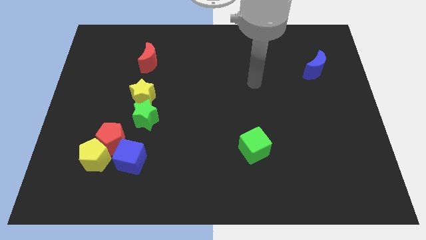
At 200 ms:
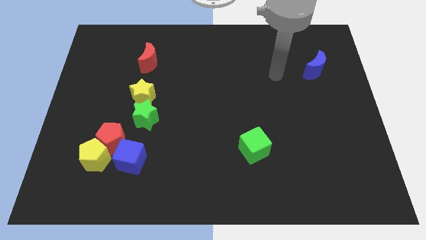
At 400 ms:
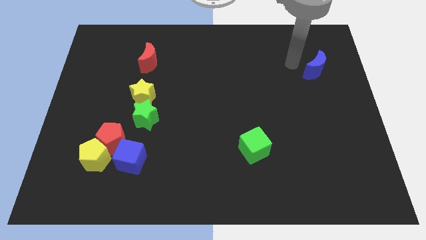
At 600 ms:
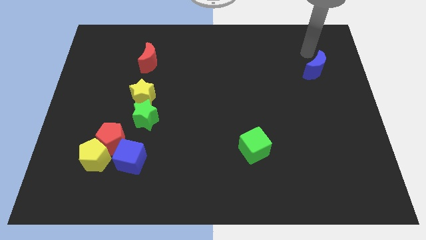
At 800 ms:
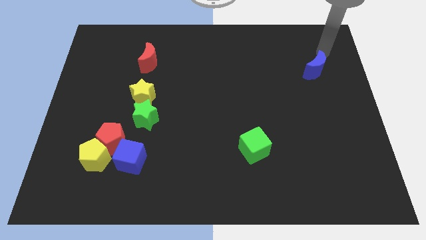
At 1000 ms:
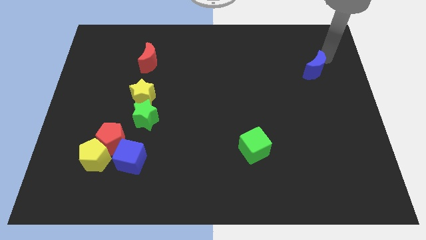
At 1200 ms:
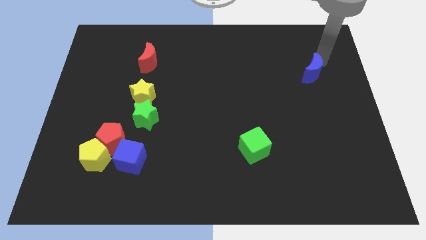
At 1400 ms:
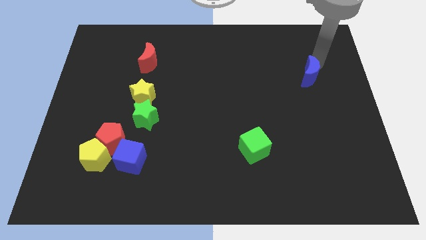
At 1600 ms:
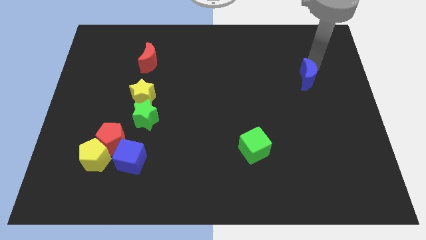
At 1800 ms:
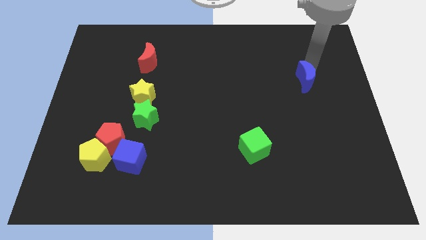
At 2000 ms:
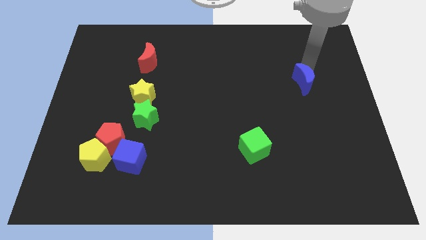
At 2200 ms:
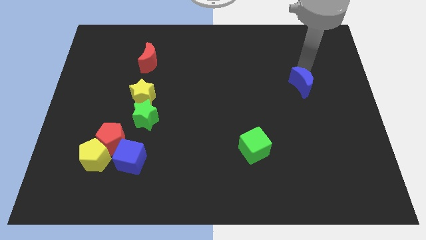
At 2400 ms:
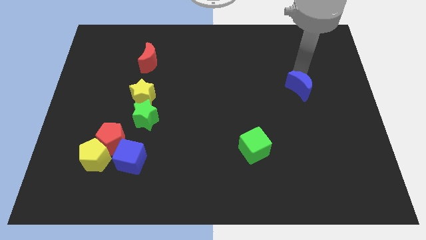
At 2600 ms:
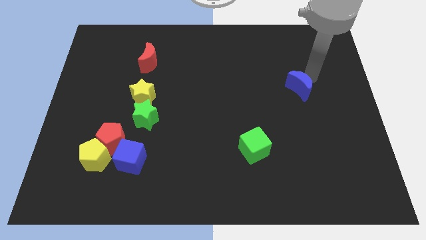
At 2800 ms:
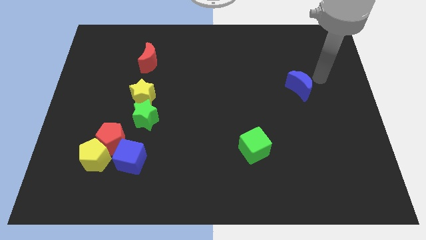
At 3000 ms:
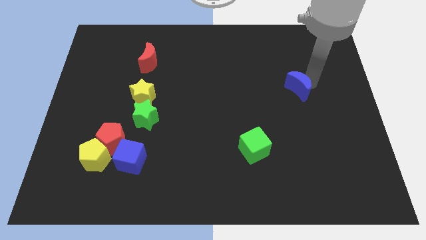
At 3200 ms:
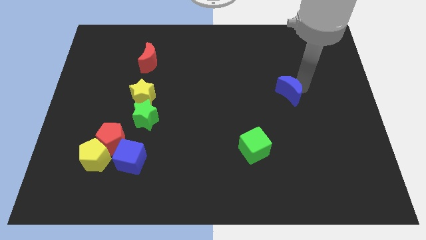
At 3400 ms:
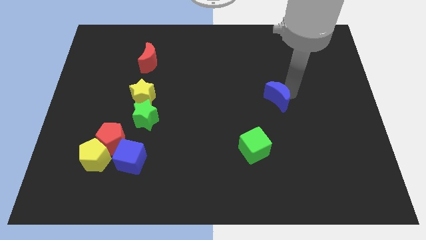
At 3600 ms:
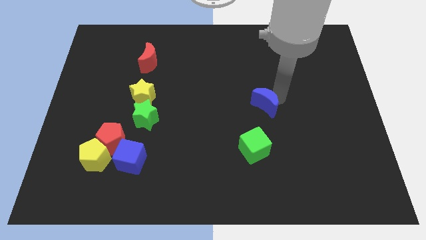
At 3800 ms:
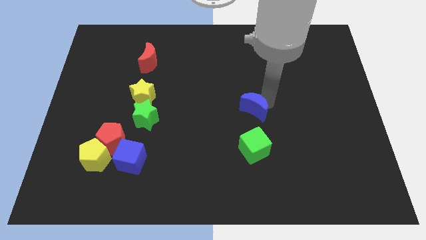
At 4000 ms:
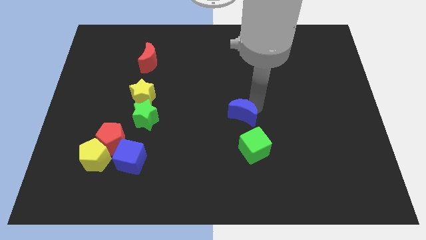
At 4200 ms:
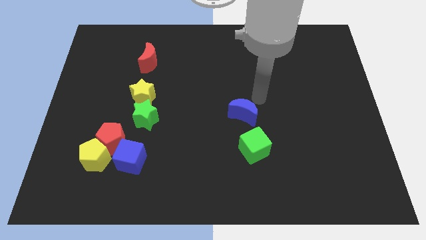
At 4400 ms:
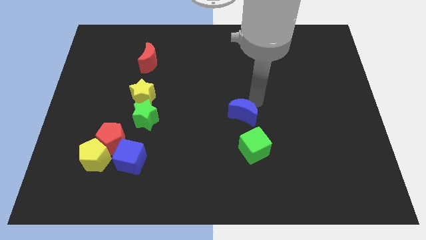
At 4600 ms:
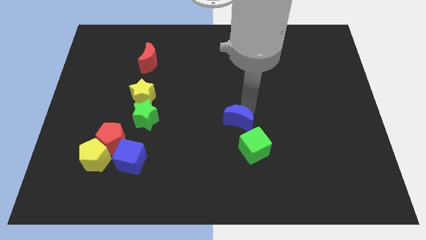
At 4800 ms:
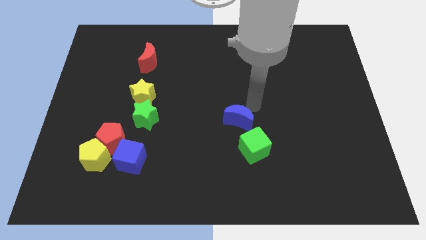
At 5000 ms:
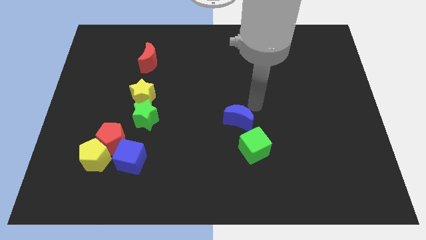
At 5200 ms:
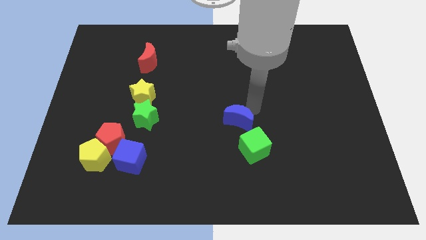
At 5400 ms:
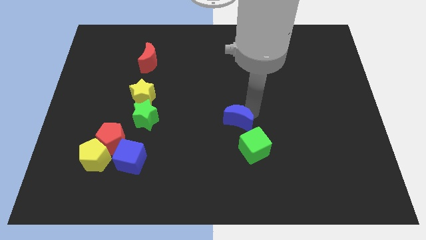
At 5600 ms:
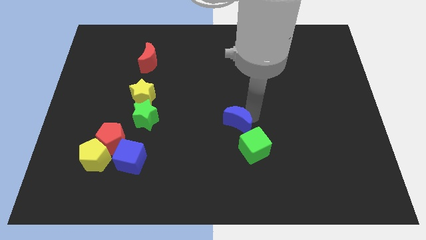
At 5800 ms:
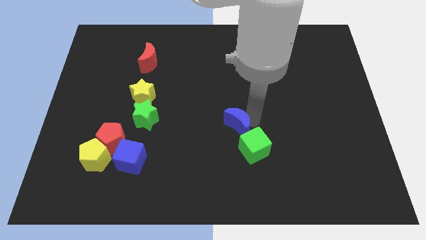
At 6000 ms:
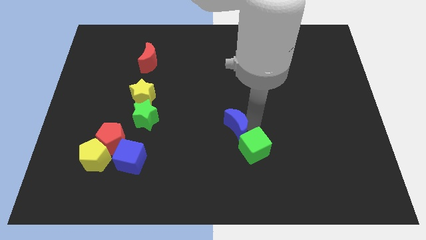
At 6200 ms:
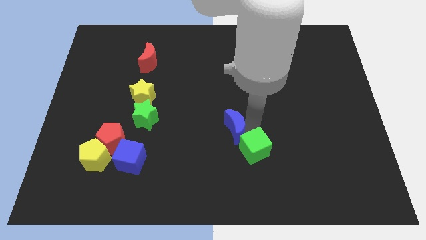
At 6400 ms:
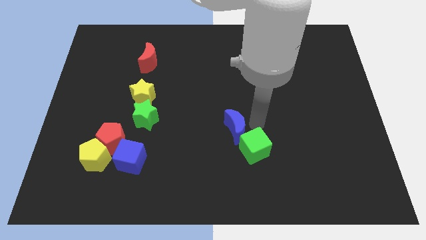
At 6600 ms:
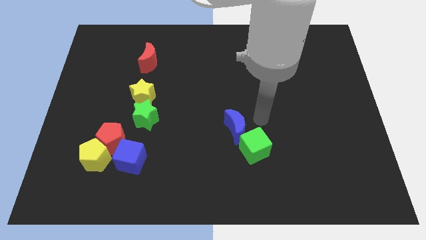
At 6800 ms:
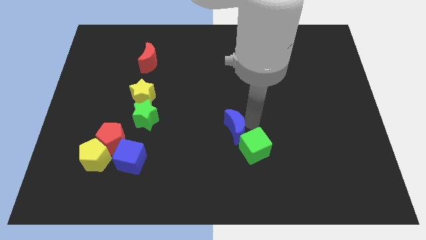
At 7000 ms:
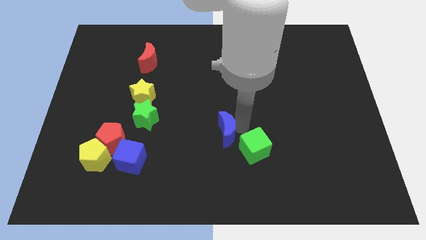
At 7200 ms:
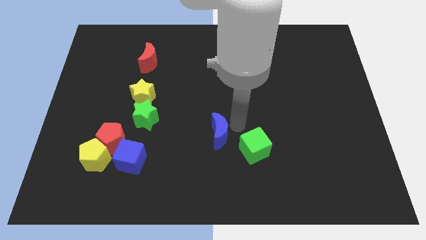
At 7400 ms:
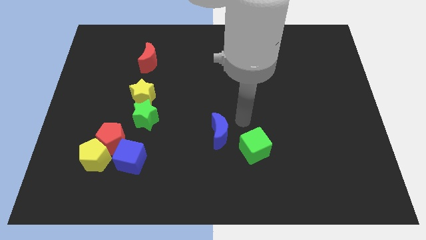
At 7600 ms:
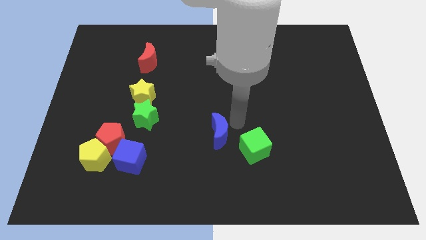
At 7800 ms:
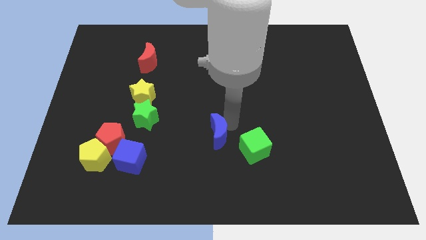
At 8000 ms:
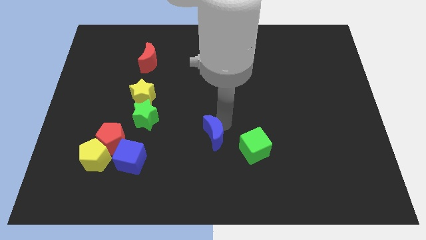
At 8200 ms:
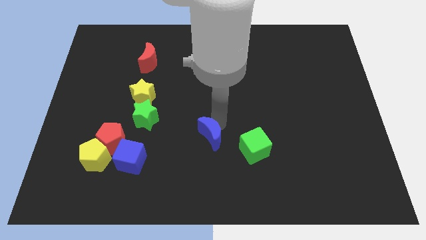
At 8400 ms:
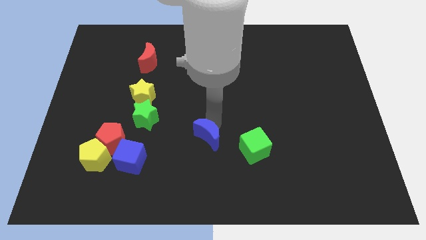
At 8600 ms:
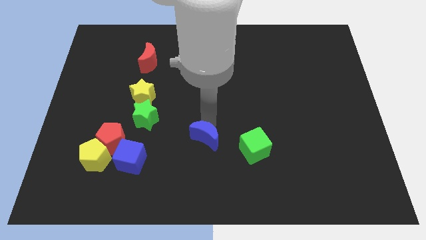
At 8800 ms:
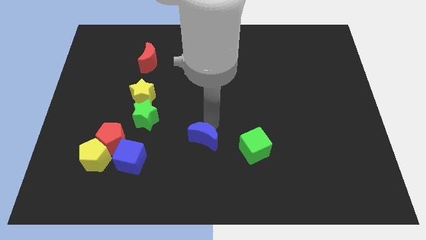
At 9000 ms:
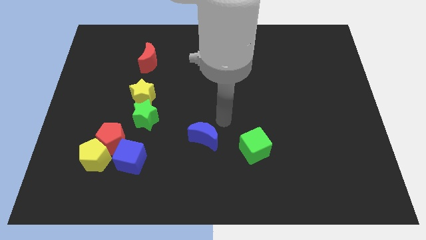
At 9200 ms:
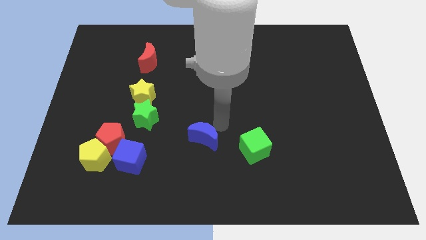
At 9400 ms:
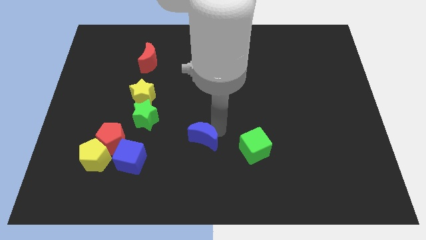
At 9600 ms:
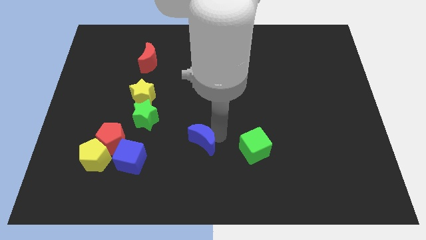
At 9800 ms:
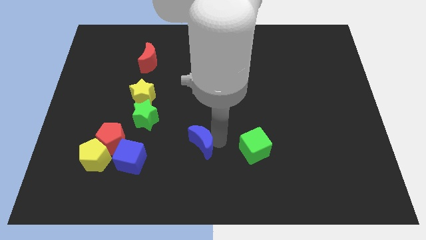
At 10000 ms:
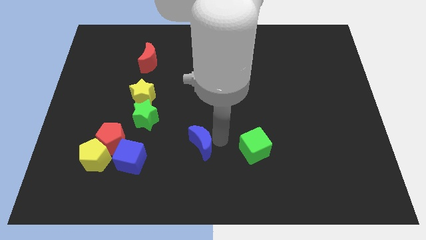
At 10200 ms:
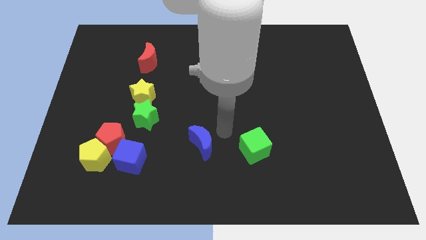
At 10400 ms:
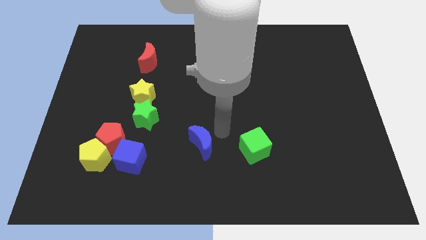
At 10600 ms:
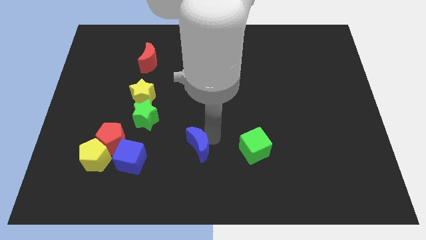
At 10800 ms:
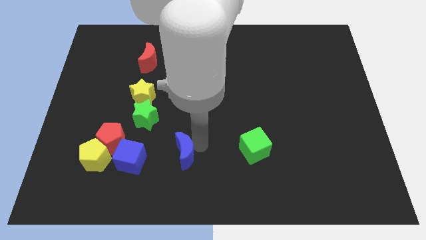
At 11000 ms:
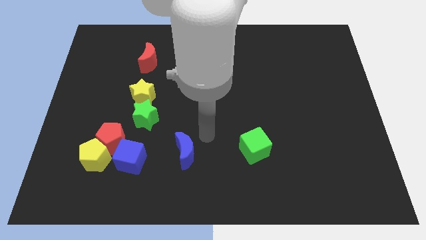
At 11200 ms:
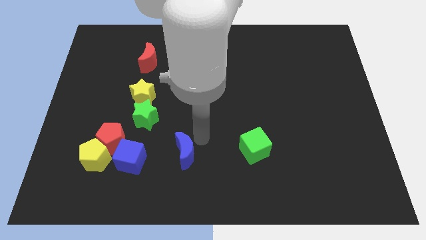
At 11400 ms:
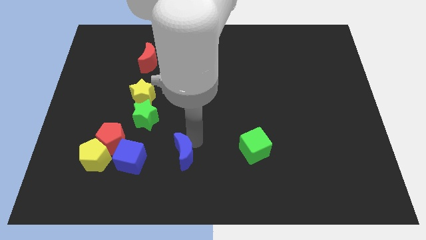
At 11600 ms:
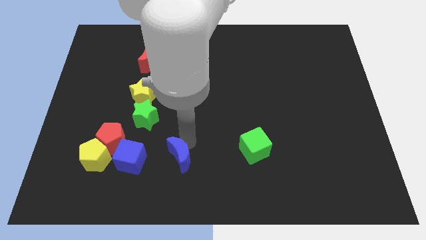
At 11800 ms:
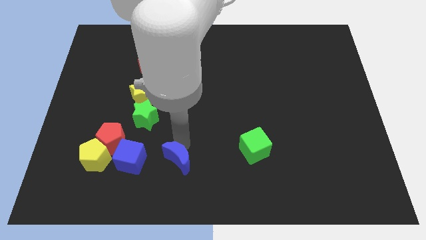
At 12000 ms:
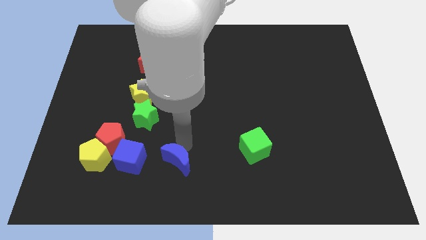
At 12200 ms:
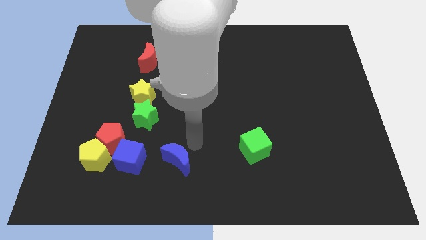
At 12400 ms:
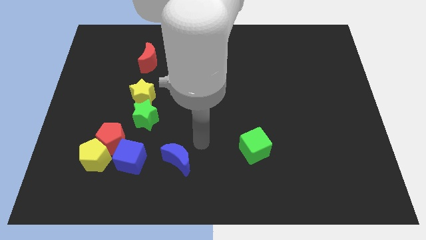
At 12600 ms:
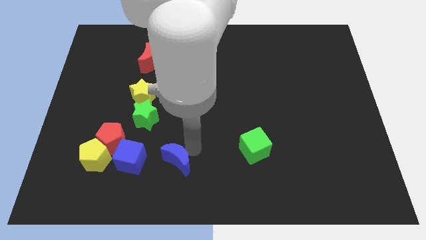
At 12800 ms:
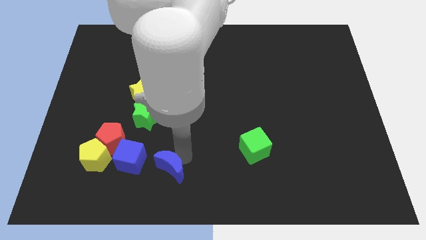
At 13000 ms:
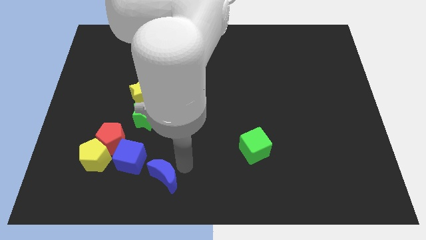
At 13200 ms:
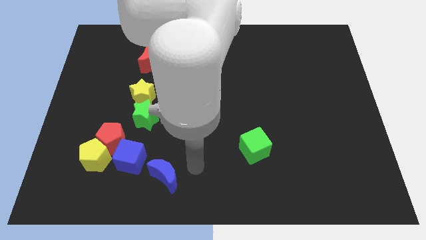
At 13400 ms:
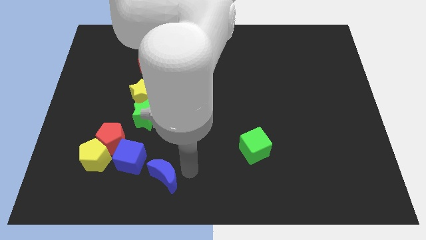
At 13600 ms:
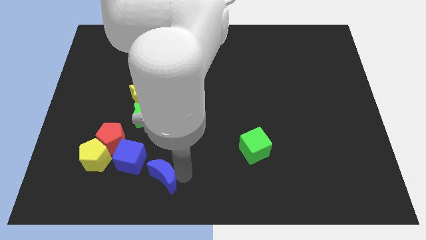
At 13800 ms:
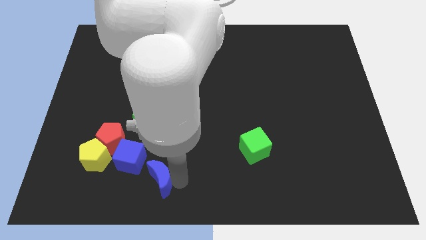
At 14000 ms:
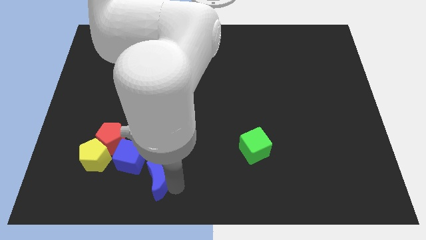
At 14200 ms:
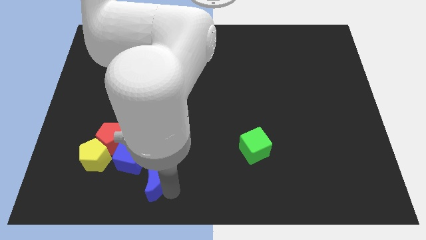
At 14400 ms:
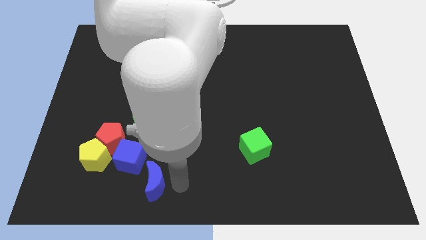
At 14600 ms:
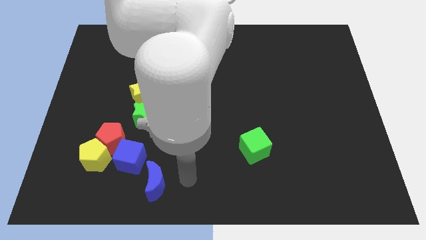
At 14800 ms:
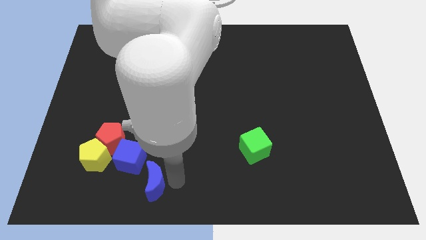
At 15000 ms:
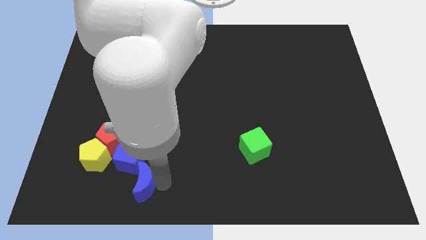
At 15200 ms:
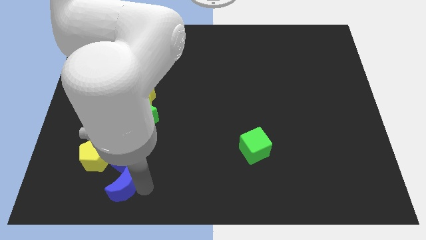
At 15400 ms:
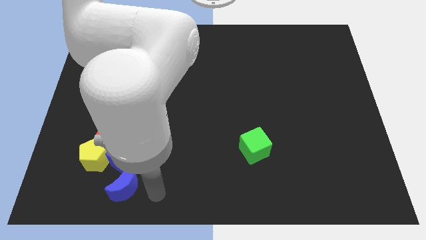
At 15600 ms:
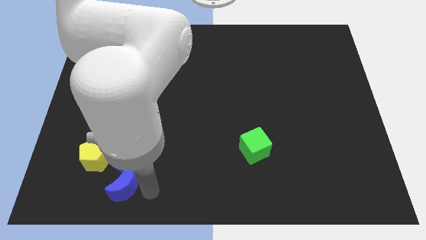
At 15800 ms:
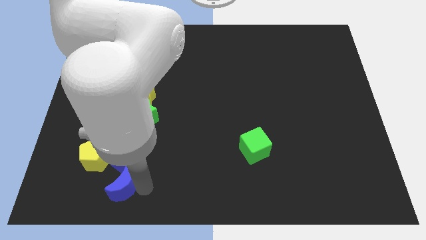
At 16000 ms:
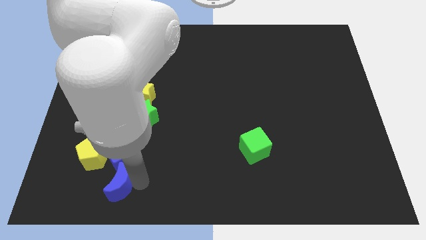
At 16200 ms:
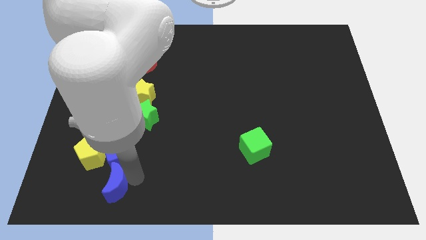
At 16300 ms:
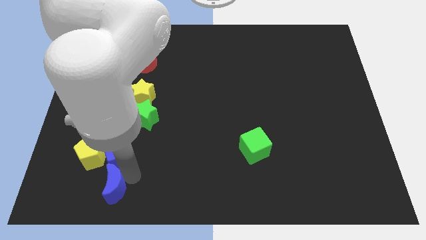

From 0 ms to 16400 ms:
slide the blue moon to the bottom left side of the blue cube
